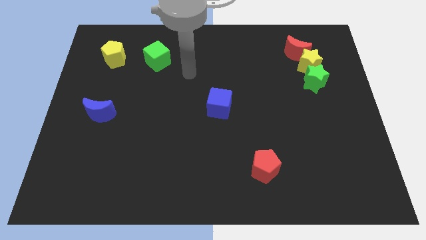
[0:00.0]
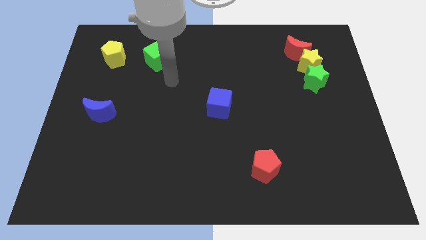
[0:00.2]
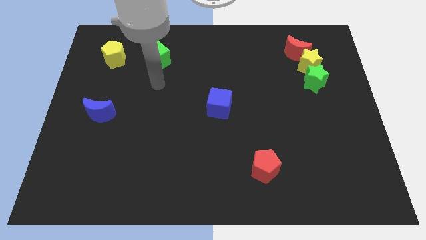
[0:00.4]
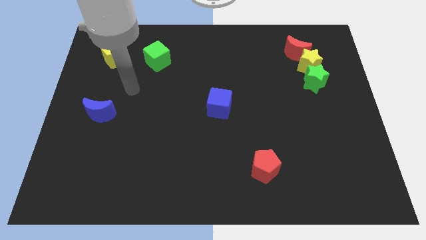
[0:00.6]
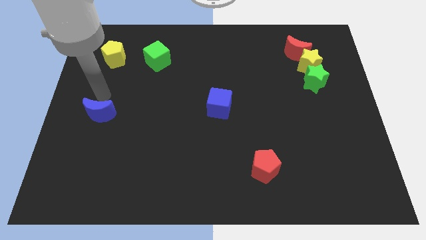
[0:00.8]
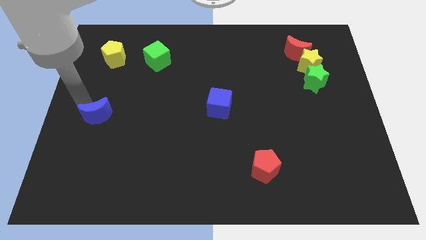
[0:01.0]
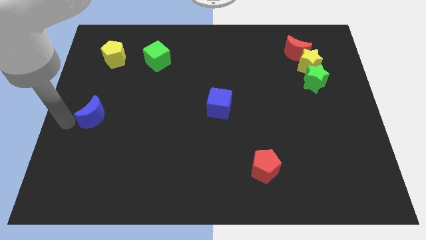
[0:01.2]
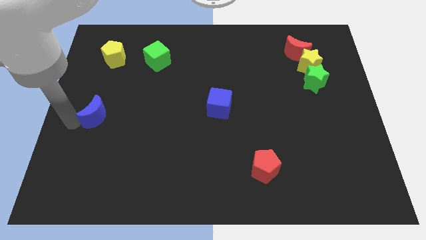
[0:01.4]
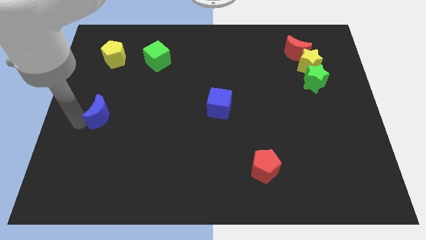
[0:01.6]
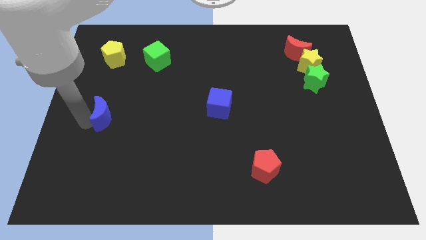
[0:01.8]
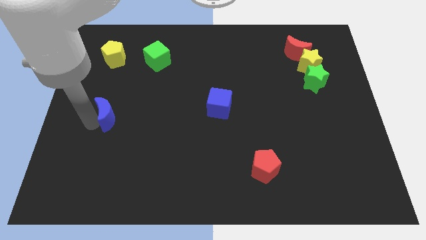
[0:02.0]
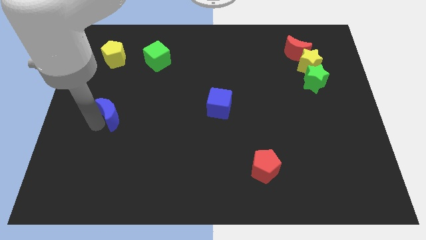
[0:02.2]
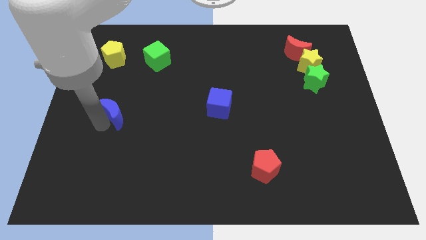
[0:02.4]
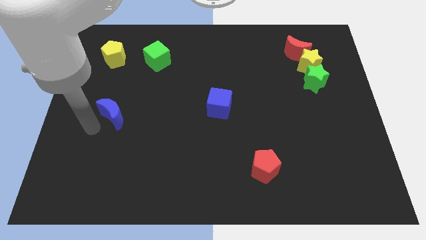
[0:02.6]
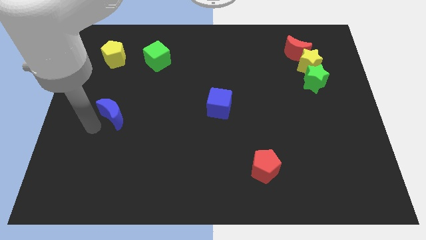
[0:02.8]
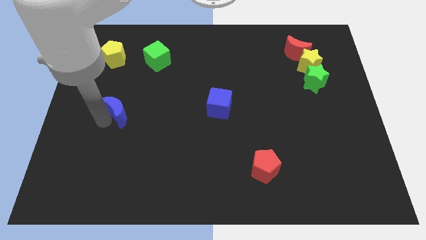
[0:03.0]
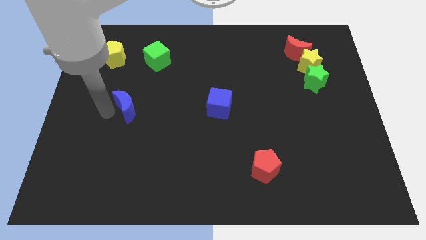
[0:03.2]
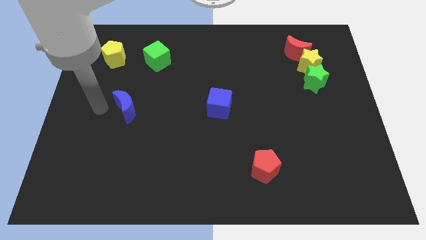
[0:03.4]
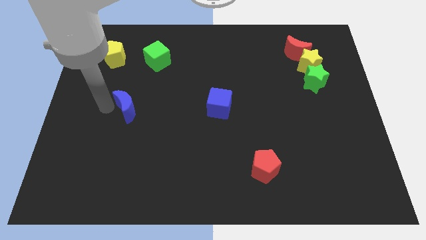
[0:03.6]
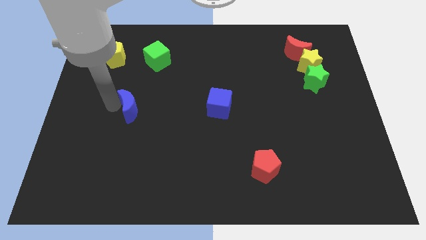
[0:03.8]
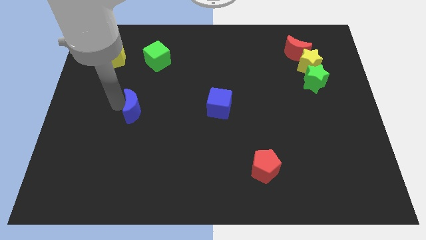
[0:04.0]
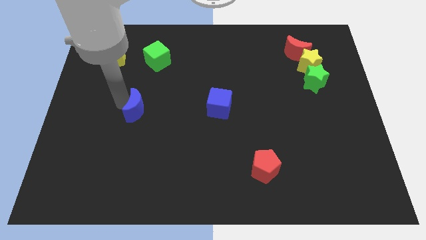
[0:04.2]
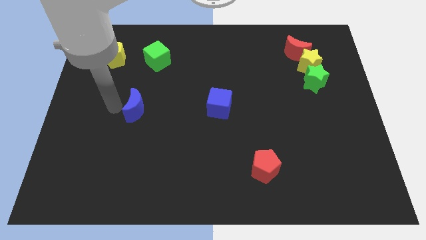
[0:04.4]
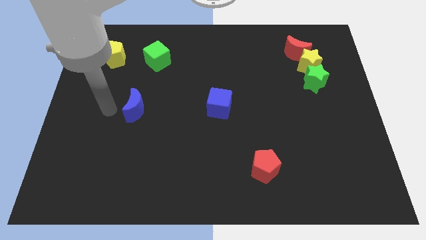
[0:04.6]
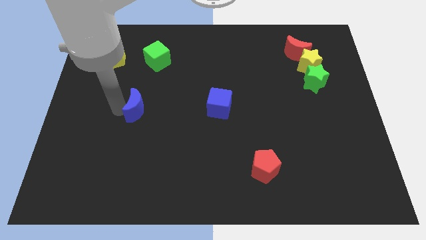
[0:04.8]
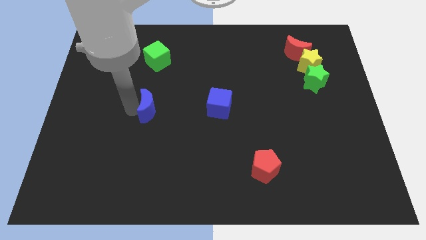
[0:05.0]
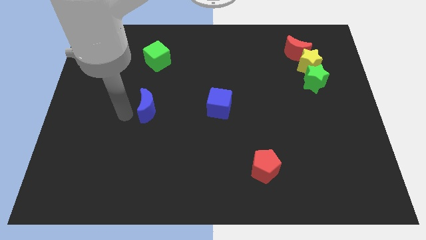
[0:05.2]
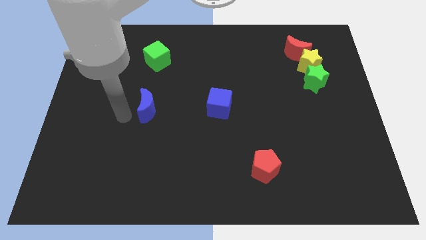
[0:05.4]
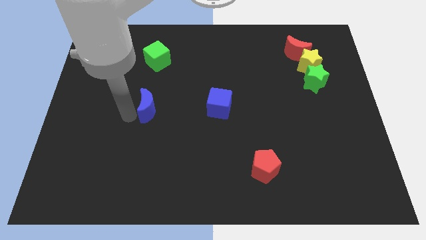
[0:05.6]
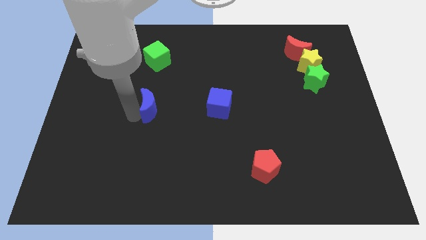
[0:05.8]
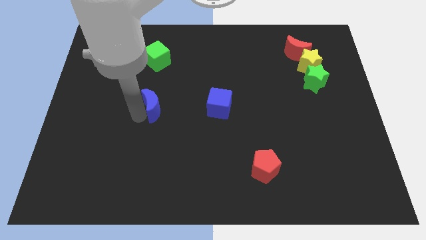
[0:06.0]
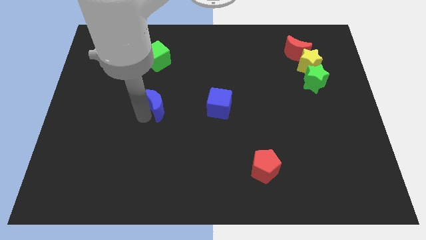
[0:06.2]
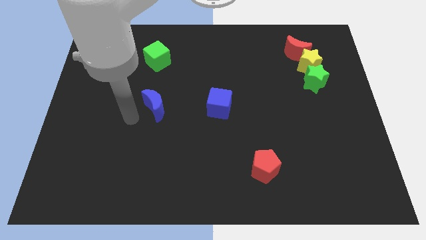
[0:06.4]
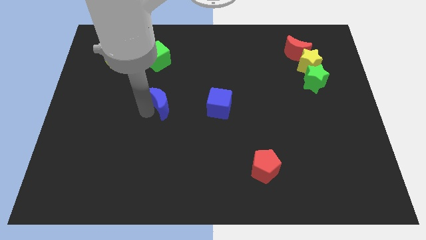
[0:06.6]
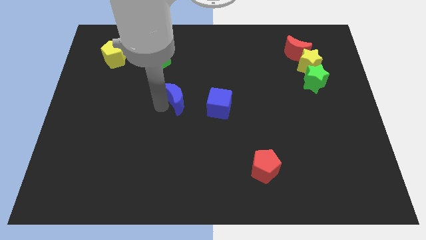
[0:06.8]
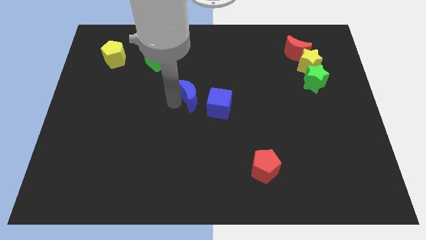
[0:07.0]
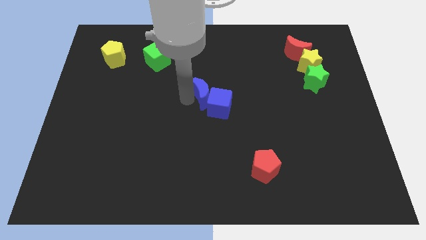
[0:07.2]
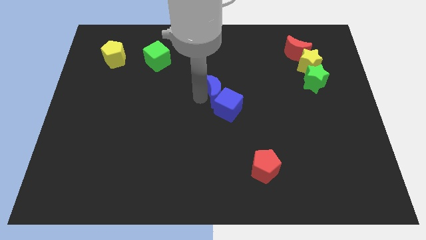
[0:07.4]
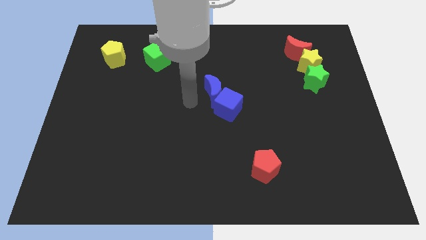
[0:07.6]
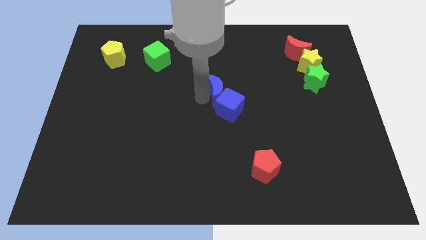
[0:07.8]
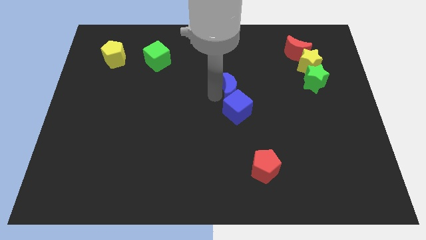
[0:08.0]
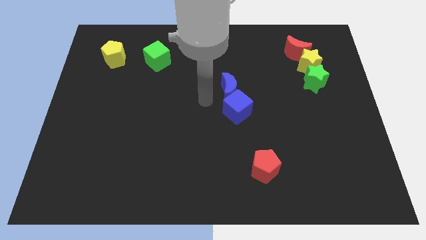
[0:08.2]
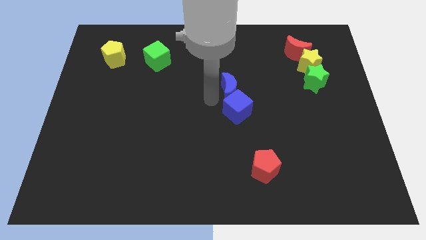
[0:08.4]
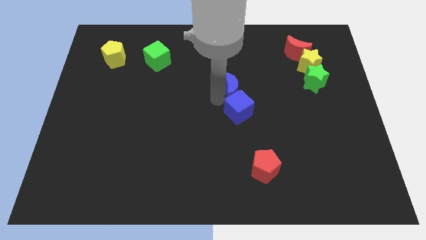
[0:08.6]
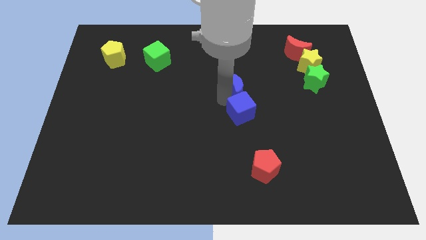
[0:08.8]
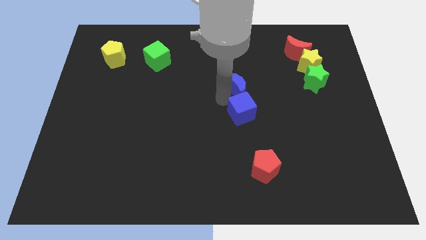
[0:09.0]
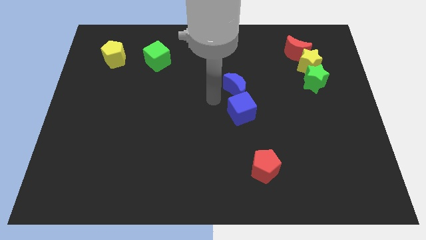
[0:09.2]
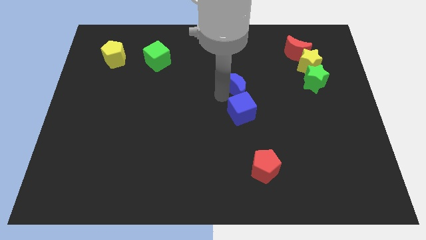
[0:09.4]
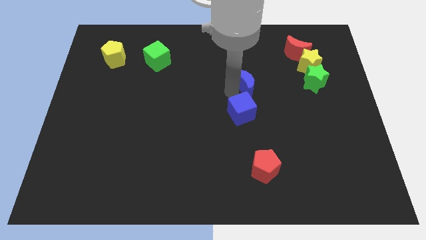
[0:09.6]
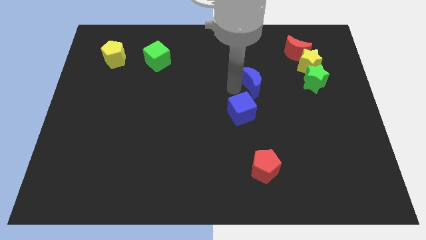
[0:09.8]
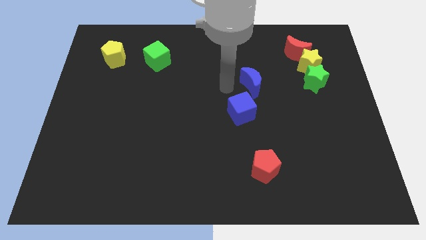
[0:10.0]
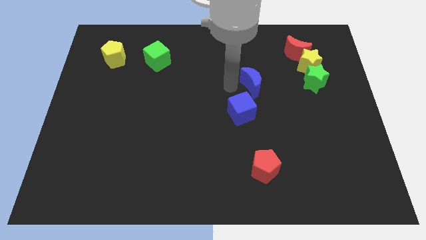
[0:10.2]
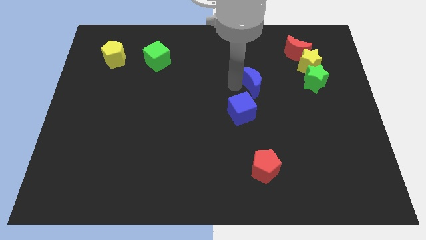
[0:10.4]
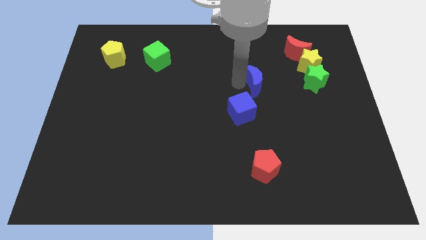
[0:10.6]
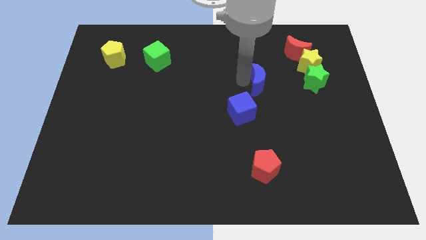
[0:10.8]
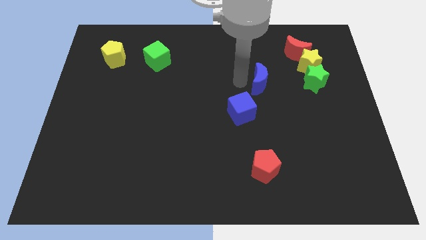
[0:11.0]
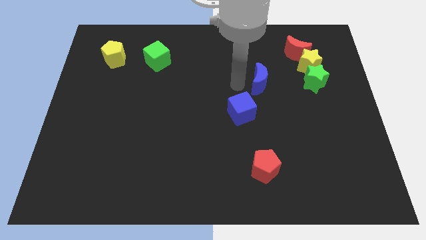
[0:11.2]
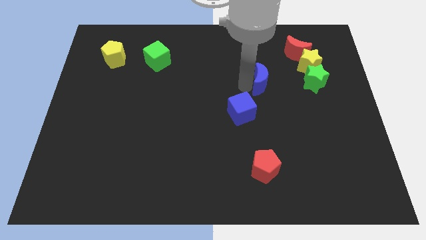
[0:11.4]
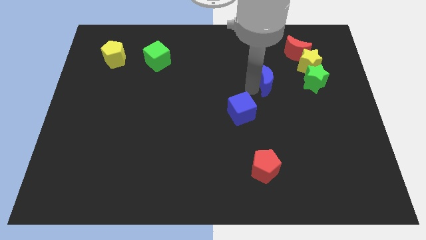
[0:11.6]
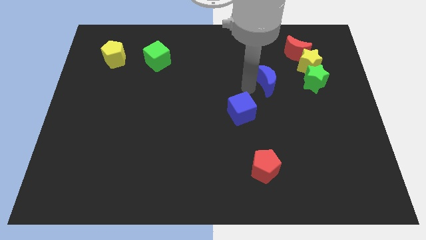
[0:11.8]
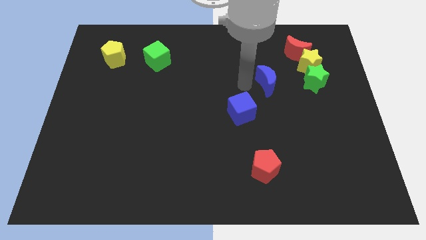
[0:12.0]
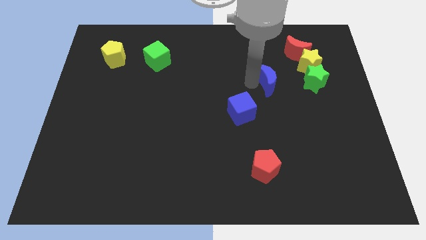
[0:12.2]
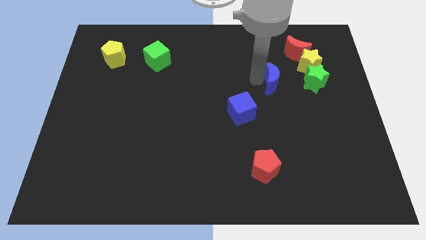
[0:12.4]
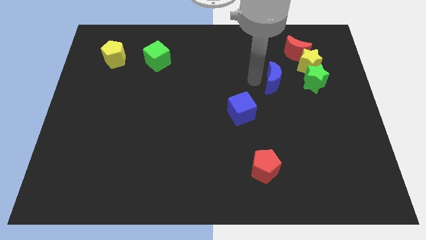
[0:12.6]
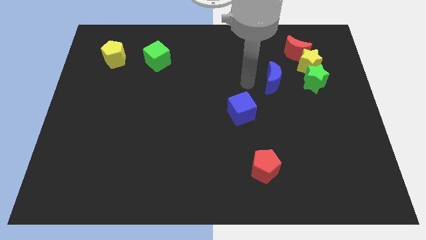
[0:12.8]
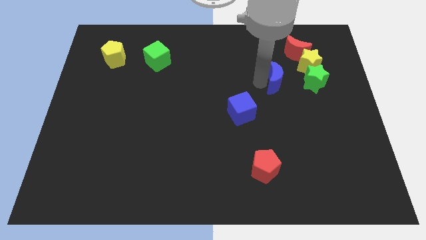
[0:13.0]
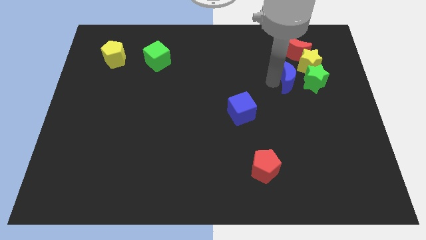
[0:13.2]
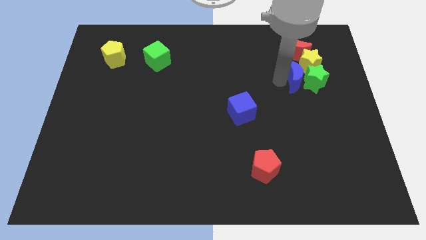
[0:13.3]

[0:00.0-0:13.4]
put the blue moon close to the green star

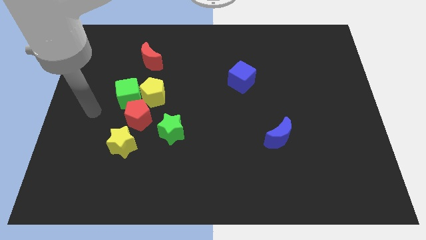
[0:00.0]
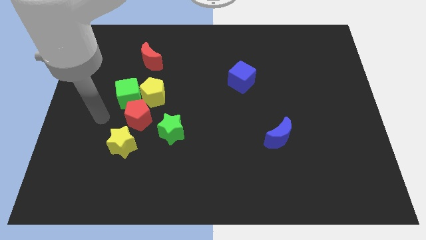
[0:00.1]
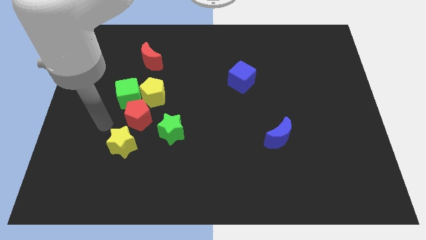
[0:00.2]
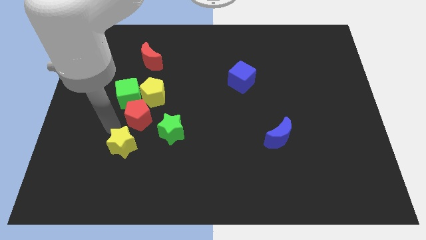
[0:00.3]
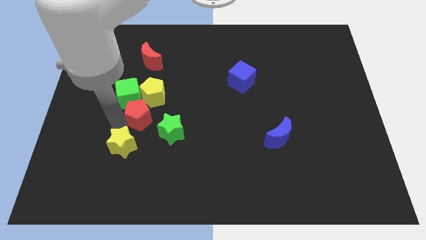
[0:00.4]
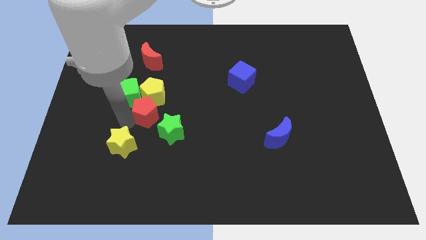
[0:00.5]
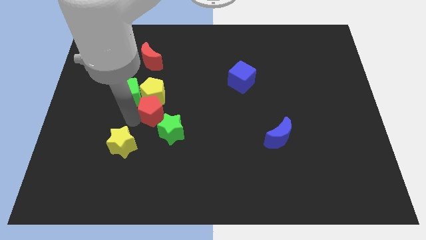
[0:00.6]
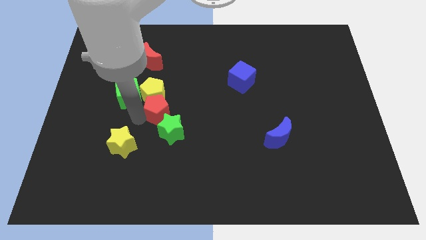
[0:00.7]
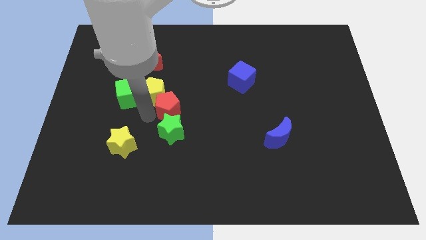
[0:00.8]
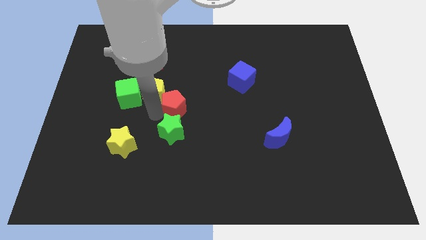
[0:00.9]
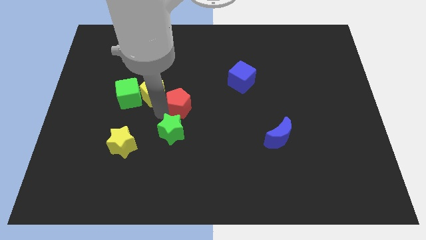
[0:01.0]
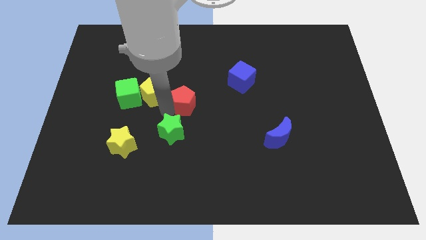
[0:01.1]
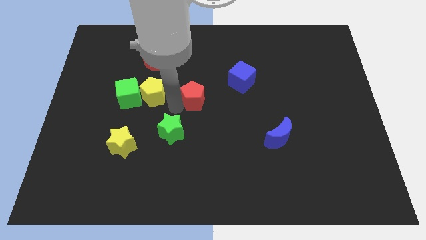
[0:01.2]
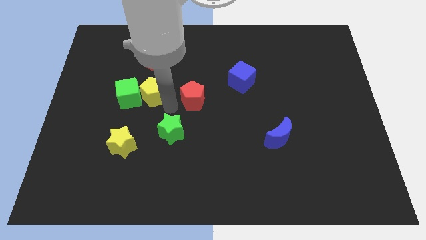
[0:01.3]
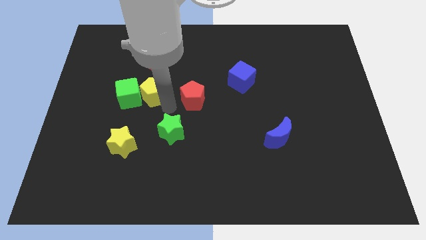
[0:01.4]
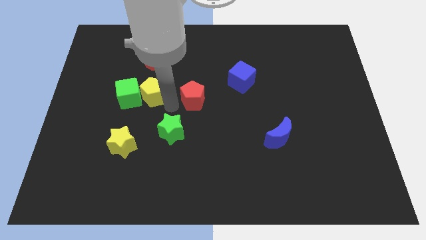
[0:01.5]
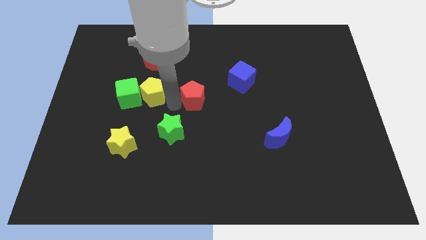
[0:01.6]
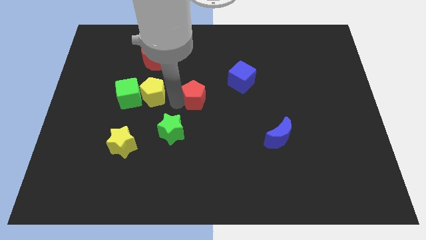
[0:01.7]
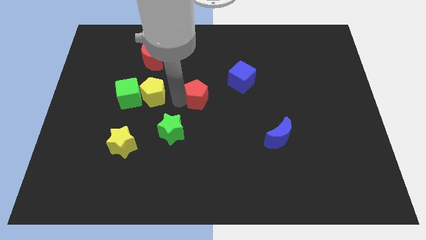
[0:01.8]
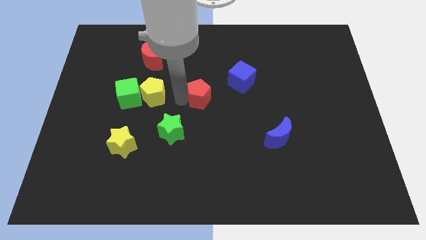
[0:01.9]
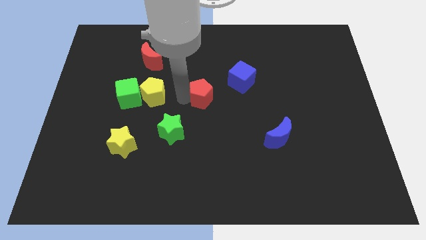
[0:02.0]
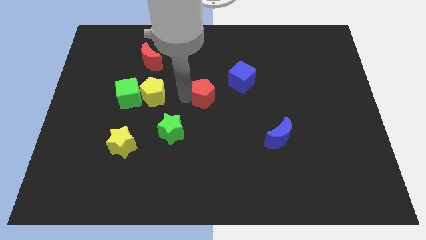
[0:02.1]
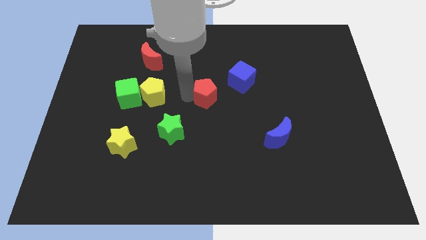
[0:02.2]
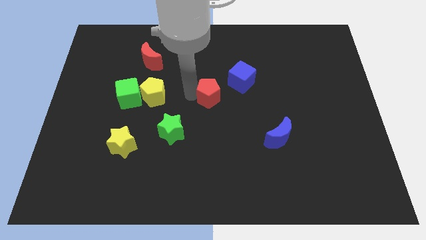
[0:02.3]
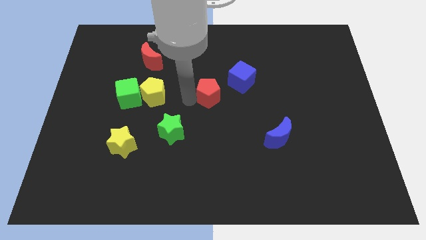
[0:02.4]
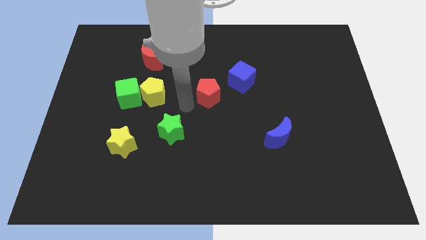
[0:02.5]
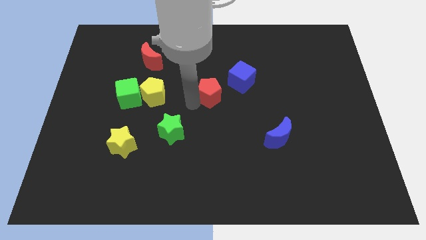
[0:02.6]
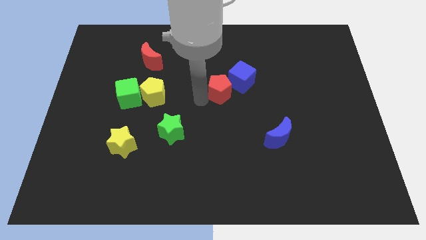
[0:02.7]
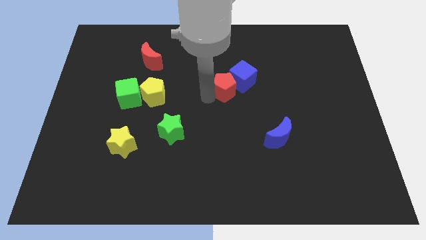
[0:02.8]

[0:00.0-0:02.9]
push the red pentagon towards the blue cube
